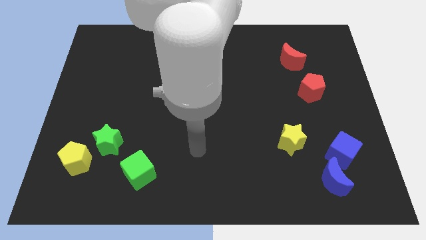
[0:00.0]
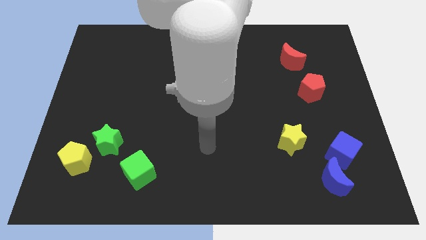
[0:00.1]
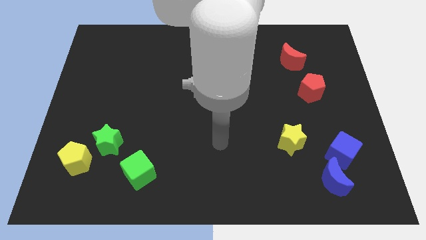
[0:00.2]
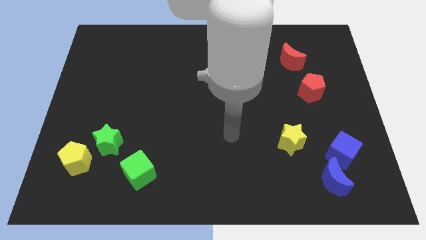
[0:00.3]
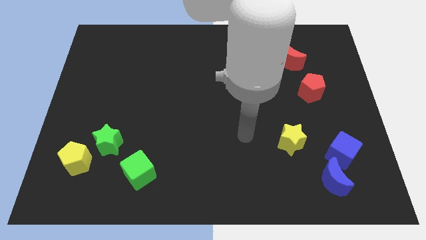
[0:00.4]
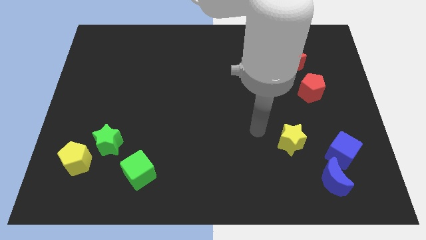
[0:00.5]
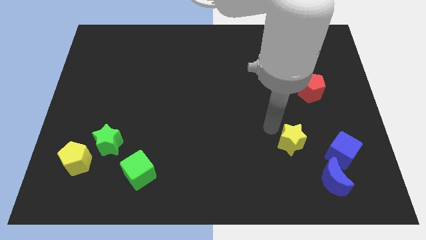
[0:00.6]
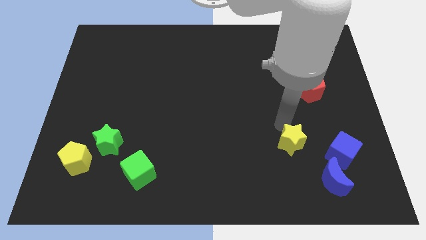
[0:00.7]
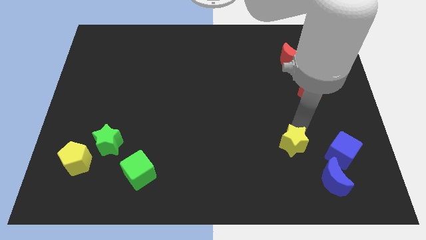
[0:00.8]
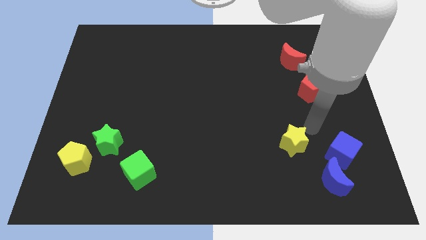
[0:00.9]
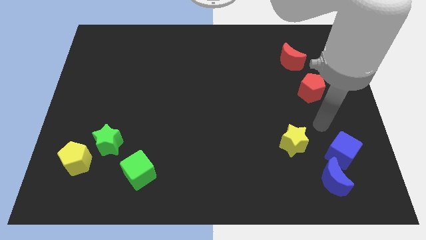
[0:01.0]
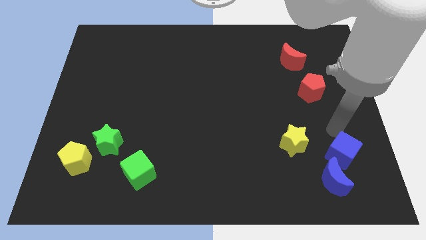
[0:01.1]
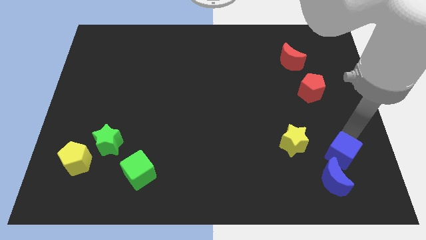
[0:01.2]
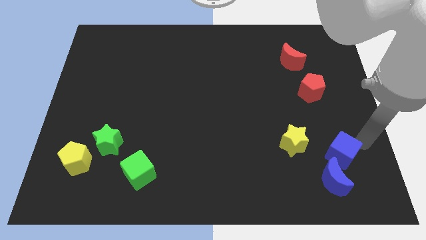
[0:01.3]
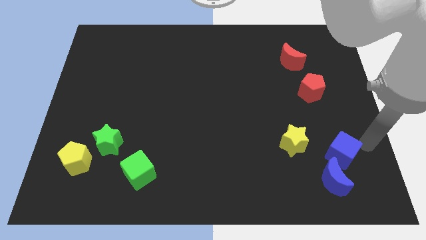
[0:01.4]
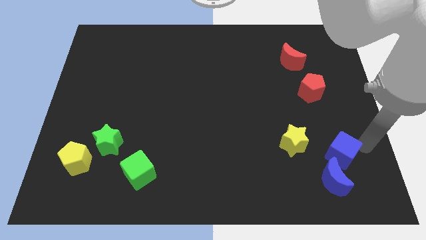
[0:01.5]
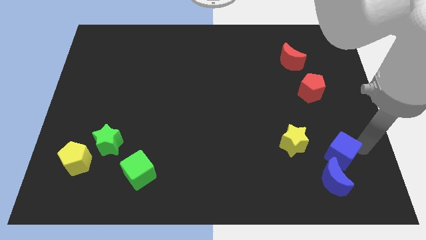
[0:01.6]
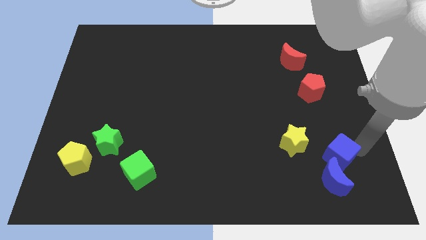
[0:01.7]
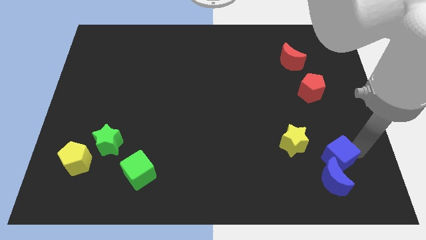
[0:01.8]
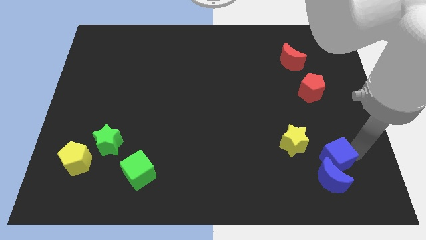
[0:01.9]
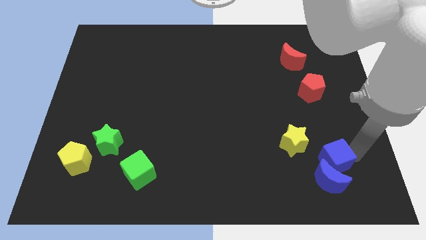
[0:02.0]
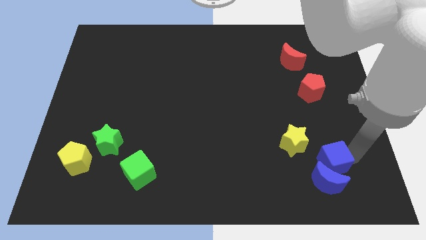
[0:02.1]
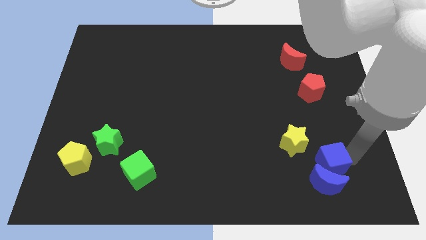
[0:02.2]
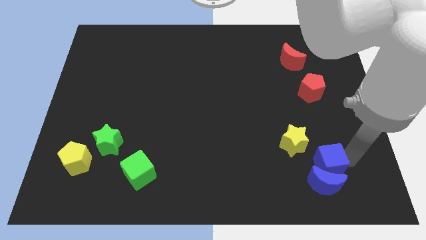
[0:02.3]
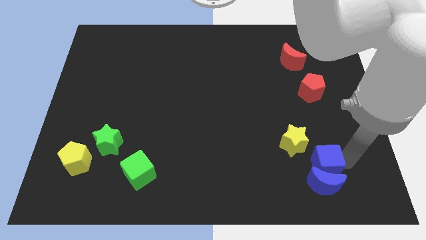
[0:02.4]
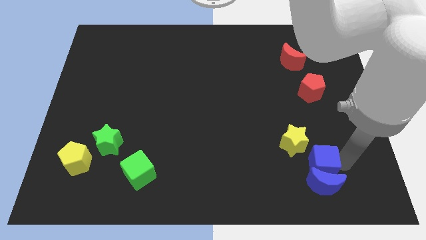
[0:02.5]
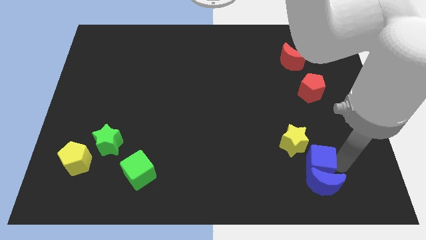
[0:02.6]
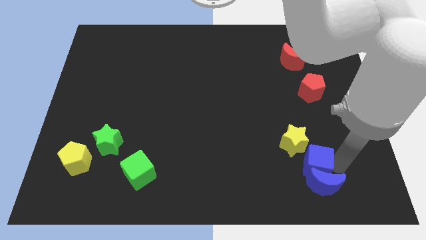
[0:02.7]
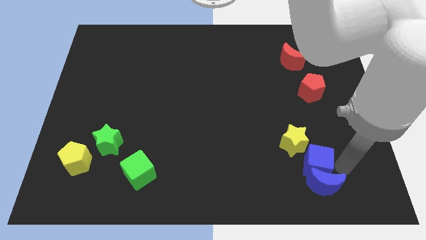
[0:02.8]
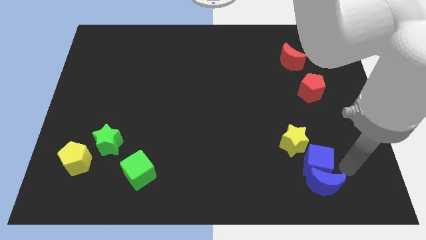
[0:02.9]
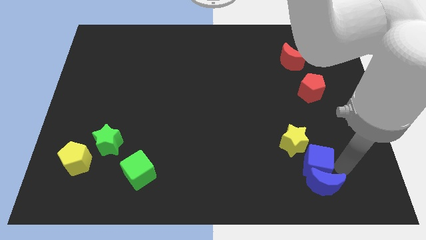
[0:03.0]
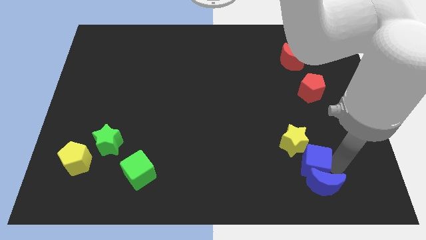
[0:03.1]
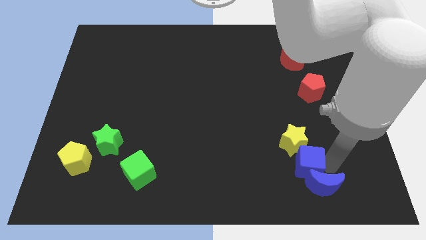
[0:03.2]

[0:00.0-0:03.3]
push the blue cube left slightly

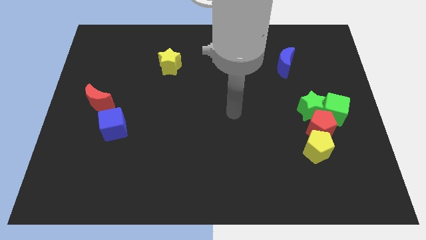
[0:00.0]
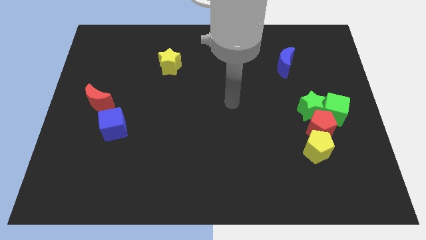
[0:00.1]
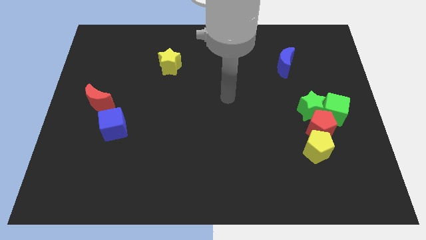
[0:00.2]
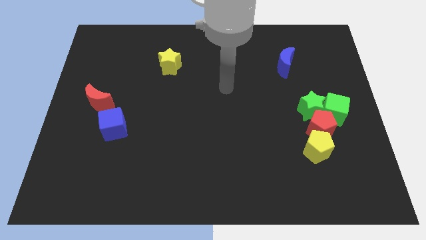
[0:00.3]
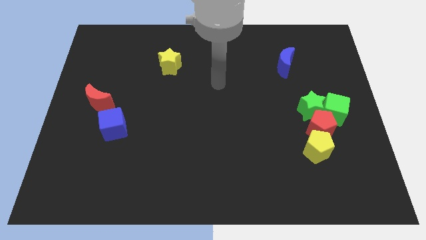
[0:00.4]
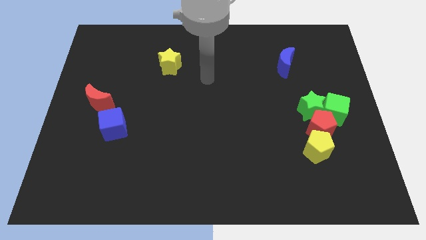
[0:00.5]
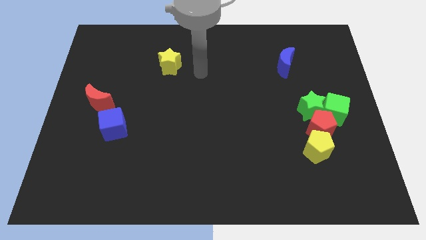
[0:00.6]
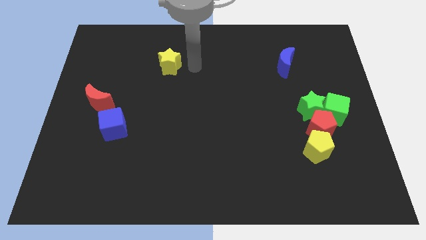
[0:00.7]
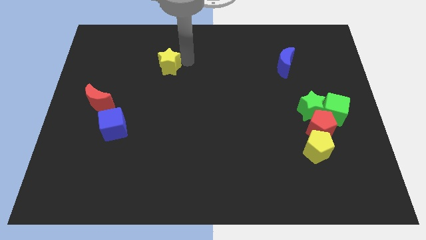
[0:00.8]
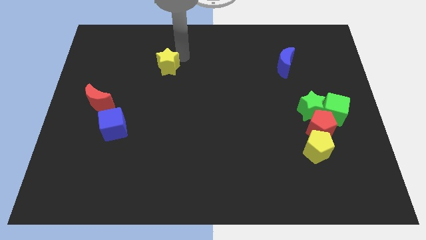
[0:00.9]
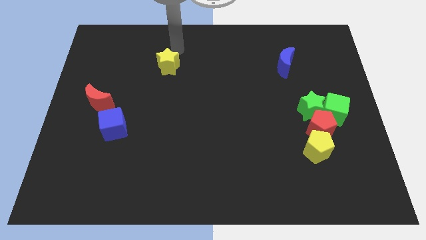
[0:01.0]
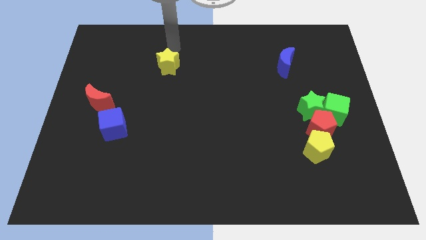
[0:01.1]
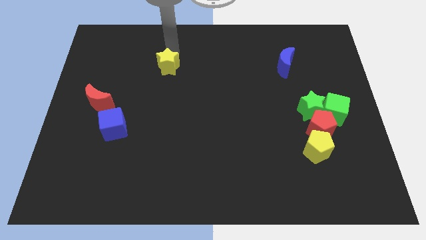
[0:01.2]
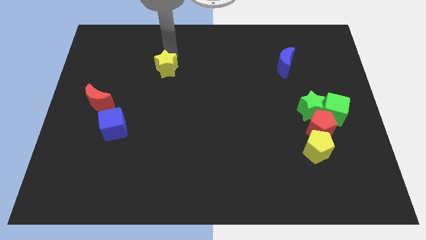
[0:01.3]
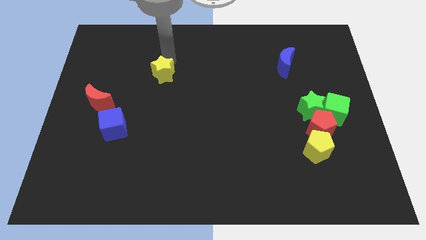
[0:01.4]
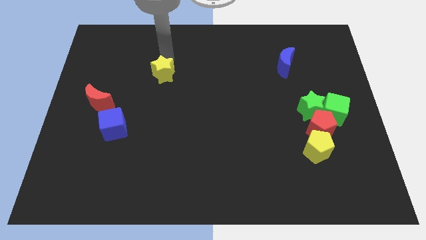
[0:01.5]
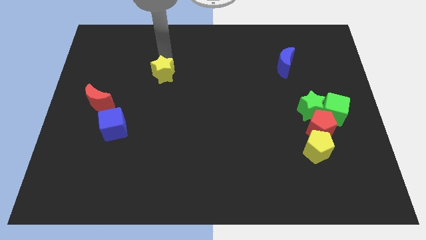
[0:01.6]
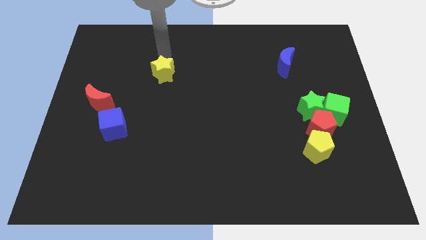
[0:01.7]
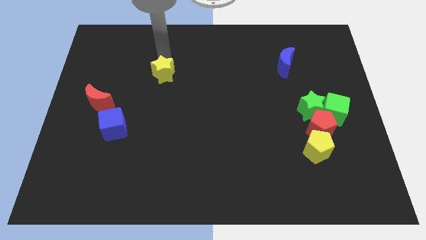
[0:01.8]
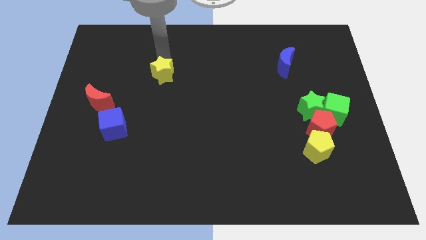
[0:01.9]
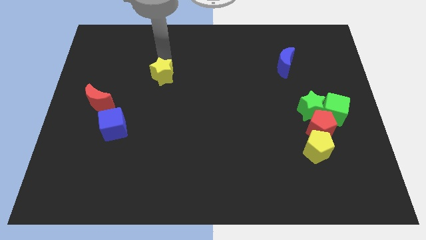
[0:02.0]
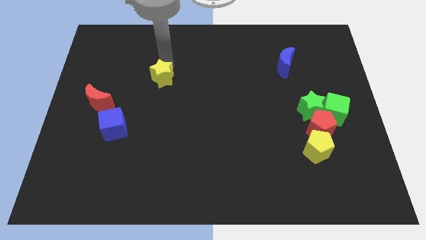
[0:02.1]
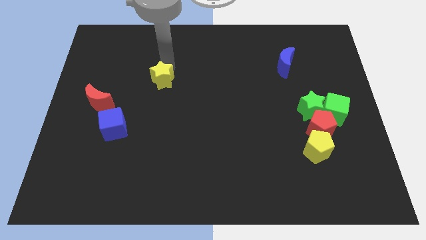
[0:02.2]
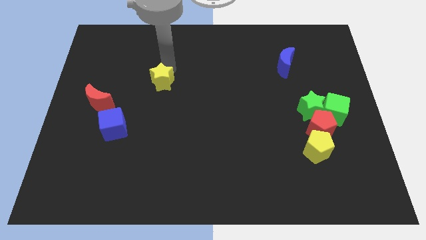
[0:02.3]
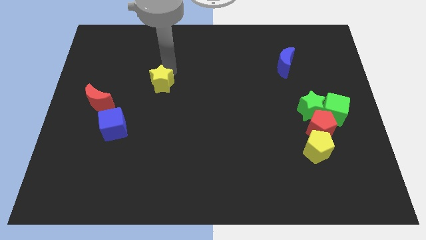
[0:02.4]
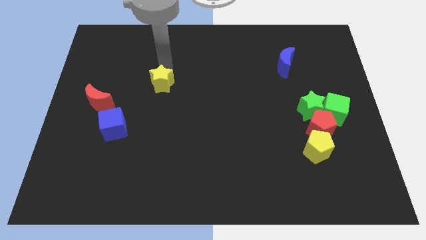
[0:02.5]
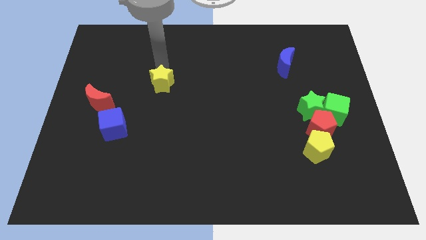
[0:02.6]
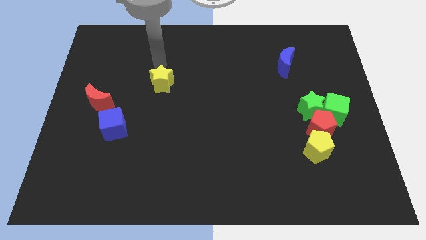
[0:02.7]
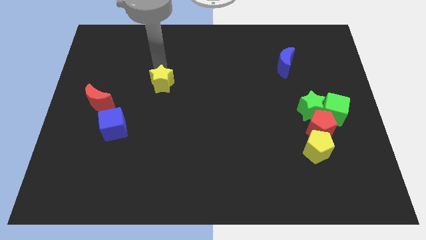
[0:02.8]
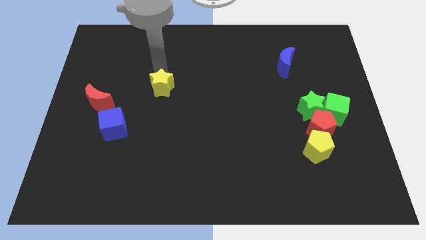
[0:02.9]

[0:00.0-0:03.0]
slightly push the yellow star down

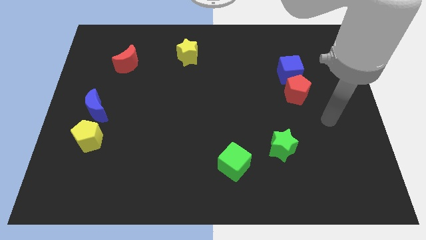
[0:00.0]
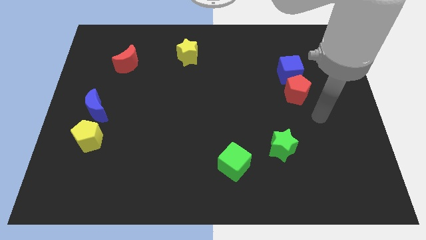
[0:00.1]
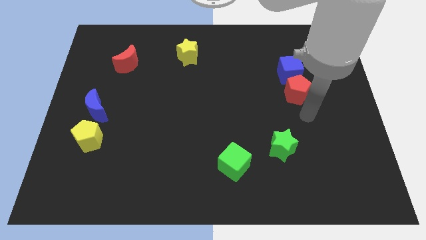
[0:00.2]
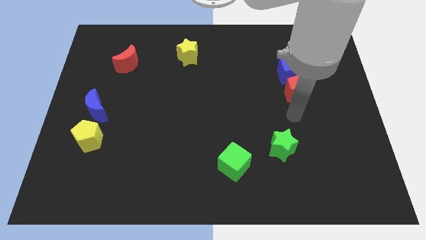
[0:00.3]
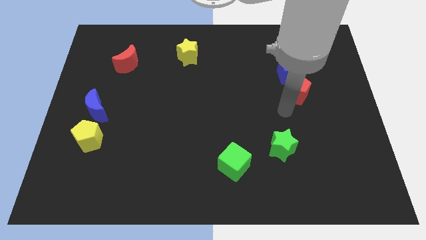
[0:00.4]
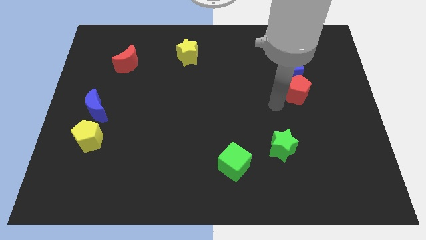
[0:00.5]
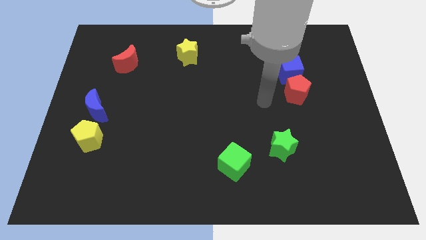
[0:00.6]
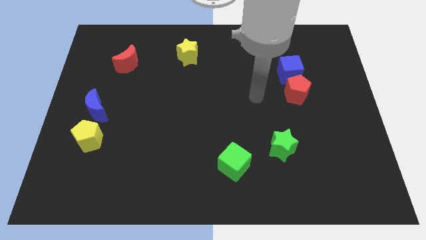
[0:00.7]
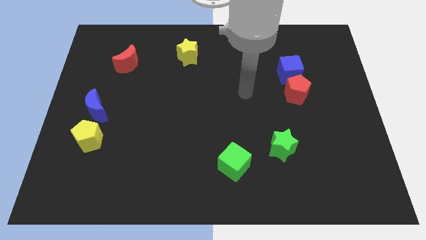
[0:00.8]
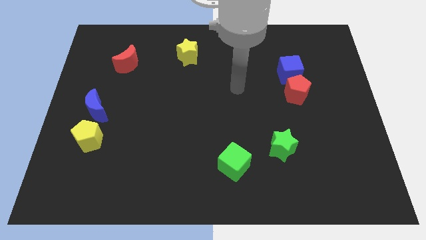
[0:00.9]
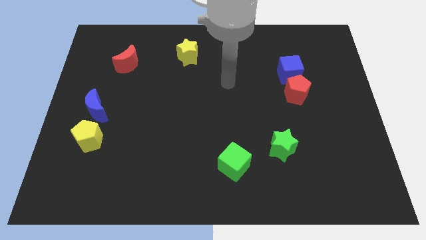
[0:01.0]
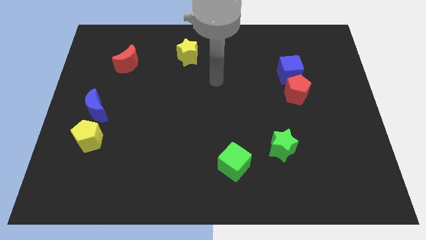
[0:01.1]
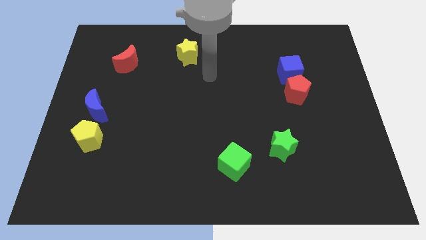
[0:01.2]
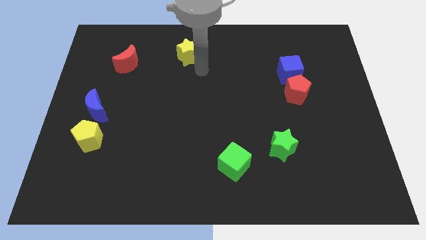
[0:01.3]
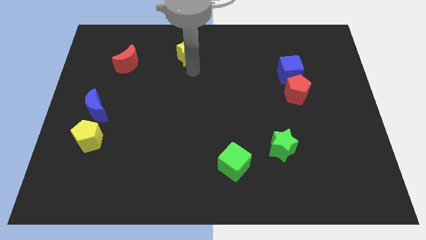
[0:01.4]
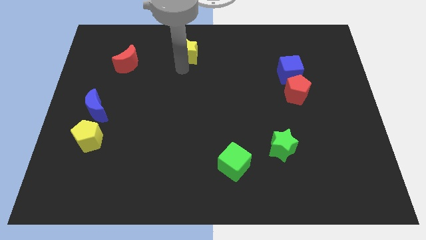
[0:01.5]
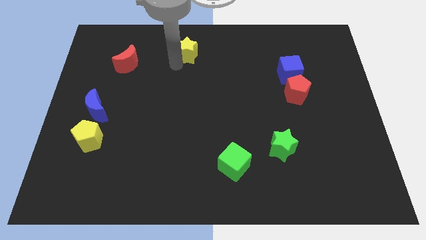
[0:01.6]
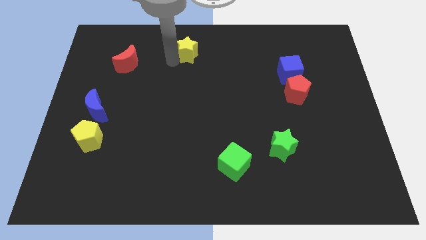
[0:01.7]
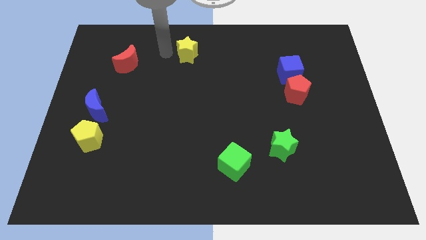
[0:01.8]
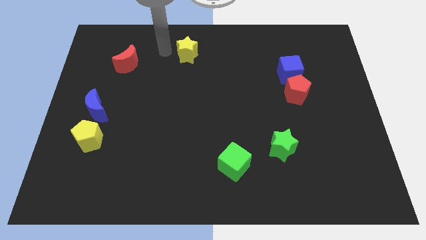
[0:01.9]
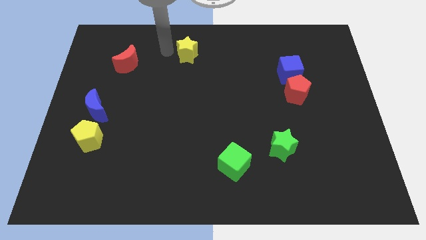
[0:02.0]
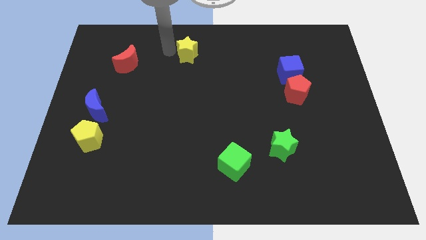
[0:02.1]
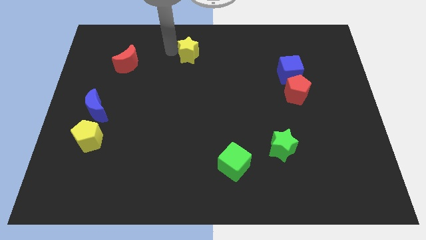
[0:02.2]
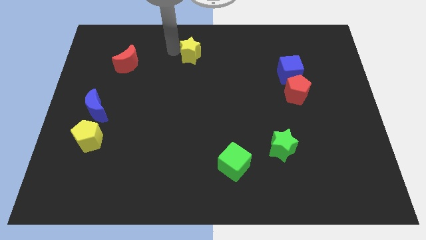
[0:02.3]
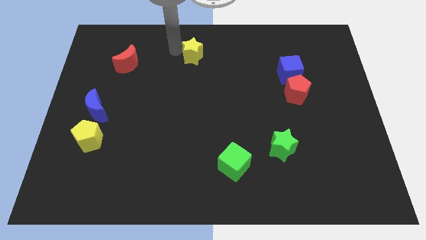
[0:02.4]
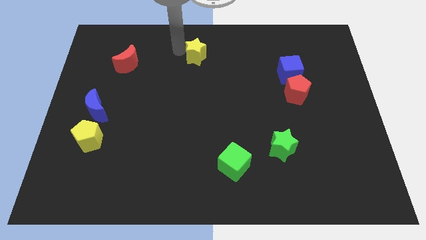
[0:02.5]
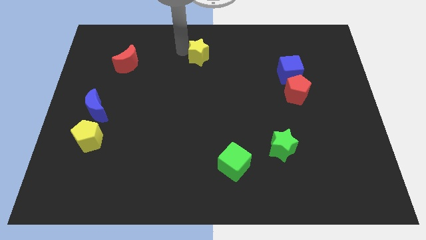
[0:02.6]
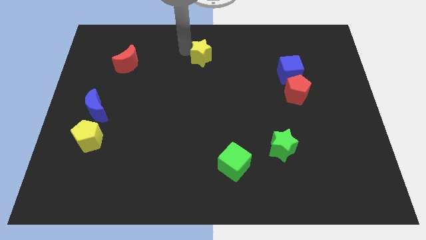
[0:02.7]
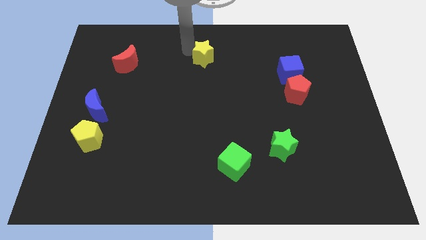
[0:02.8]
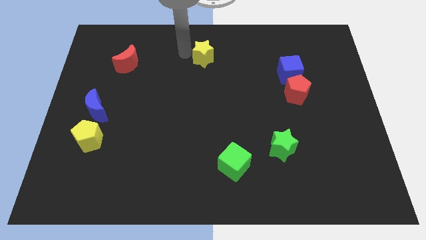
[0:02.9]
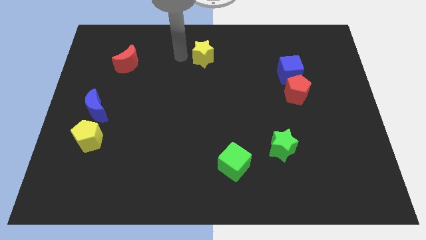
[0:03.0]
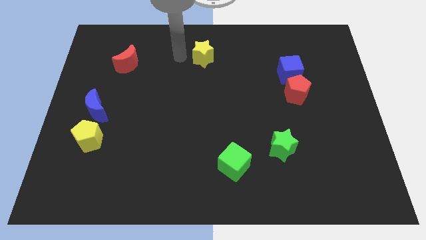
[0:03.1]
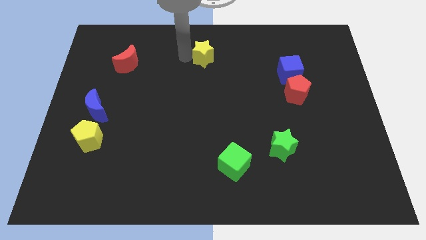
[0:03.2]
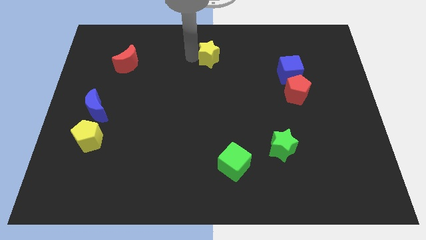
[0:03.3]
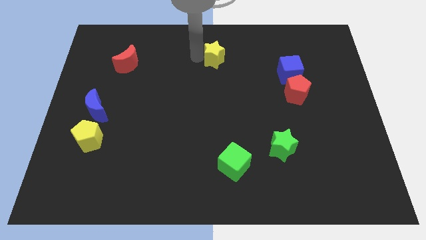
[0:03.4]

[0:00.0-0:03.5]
push the yellow star a bit to the right
